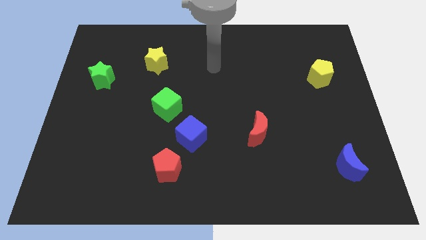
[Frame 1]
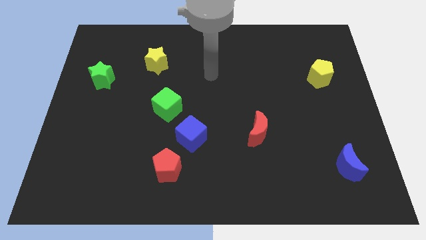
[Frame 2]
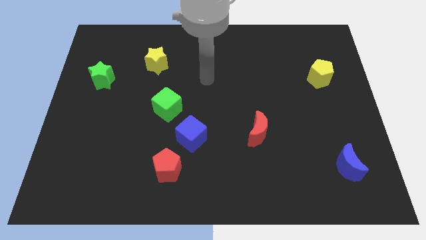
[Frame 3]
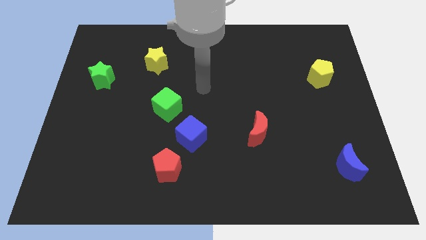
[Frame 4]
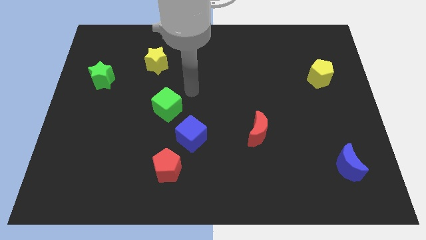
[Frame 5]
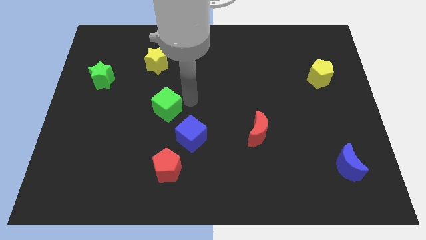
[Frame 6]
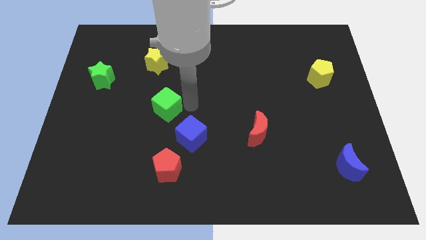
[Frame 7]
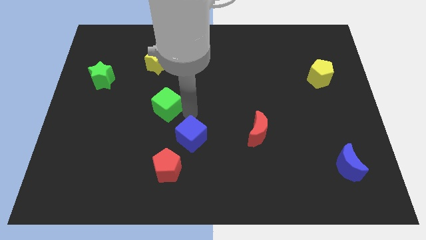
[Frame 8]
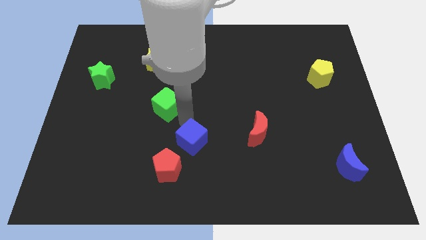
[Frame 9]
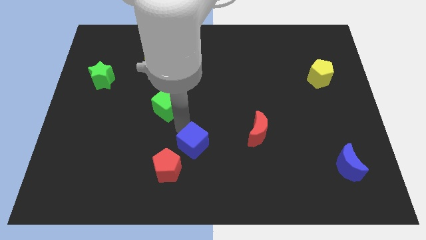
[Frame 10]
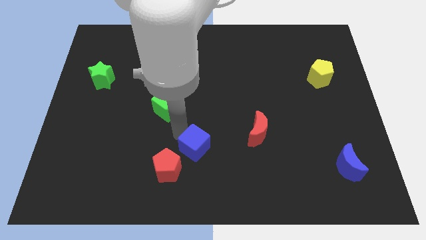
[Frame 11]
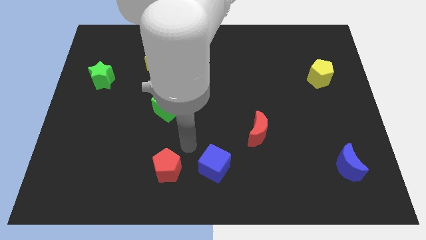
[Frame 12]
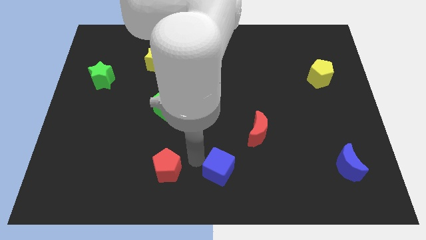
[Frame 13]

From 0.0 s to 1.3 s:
move the red pentagon away from the blue cube

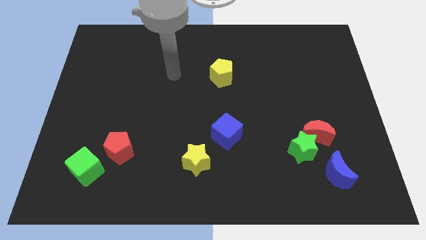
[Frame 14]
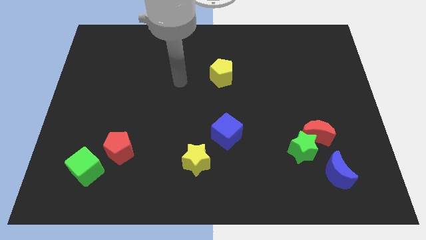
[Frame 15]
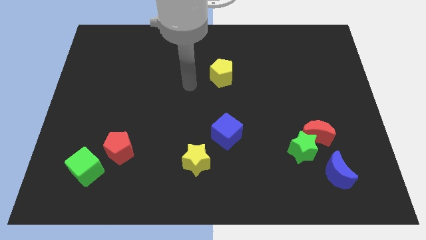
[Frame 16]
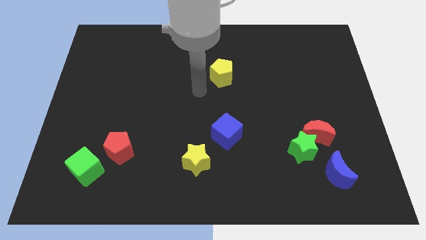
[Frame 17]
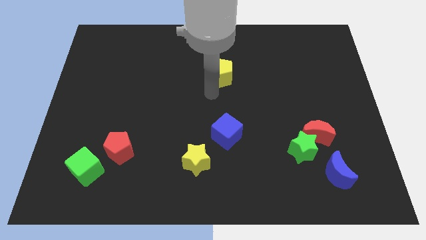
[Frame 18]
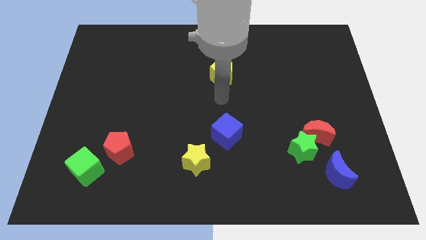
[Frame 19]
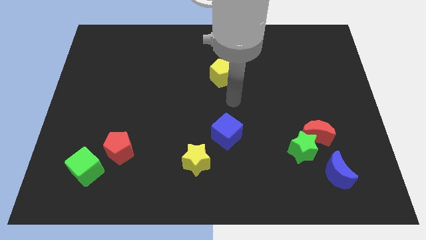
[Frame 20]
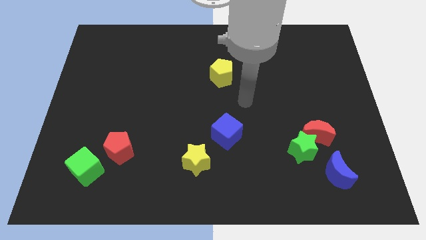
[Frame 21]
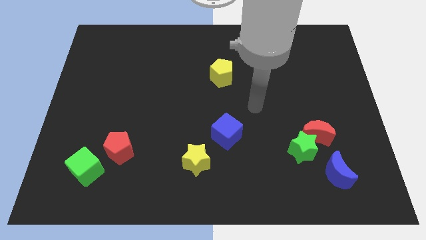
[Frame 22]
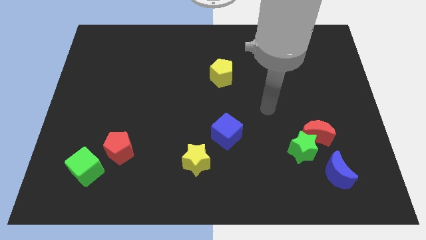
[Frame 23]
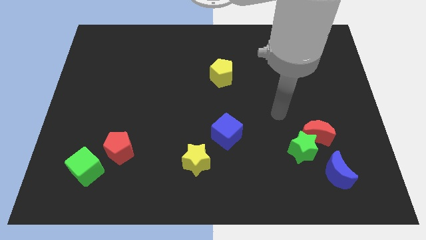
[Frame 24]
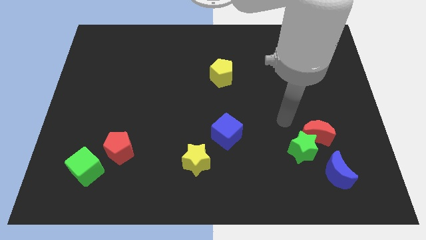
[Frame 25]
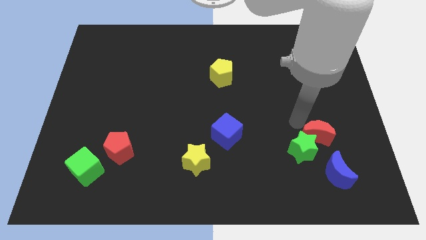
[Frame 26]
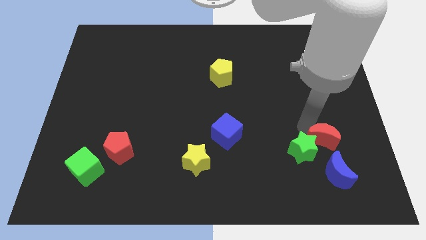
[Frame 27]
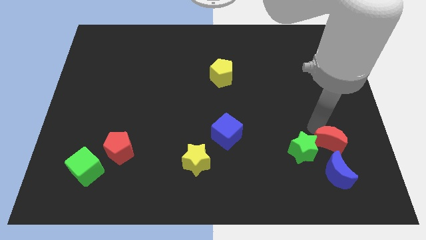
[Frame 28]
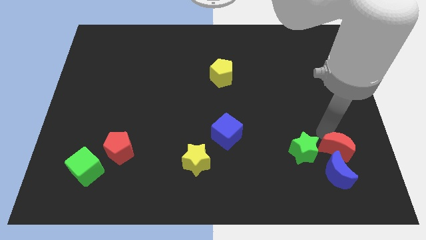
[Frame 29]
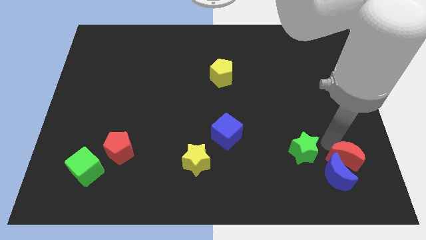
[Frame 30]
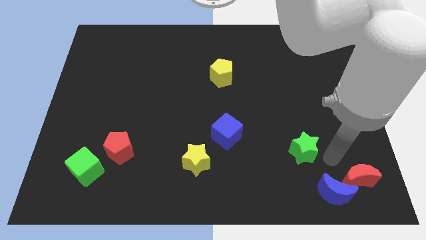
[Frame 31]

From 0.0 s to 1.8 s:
move the green star away from the red moon and blue moon

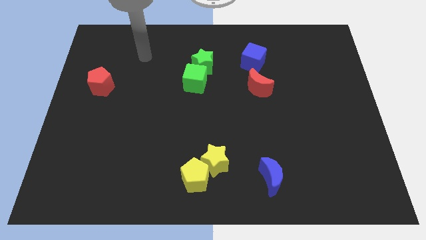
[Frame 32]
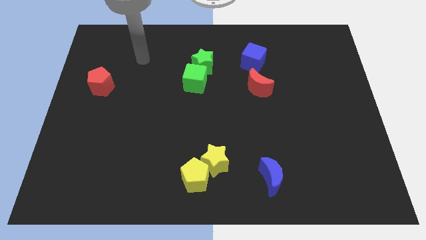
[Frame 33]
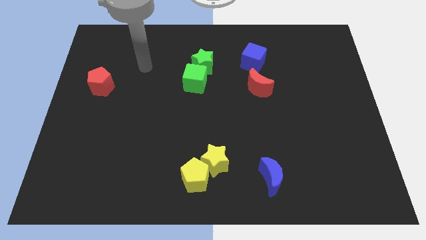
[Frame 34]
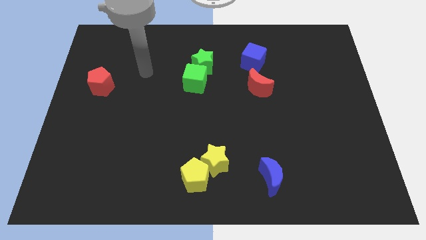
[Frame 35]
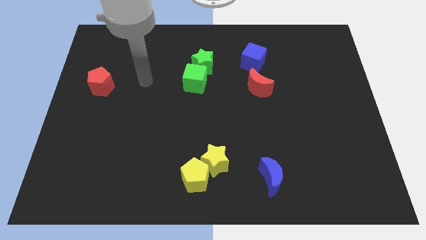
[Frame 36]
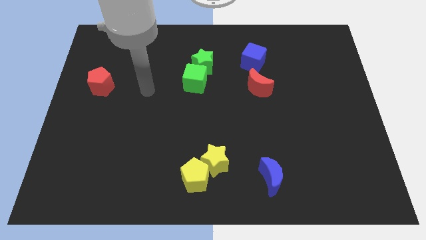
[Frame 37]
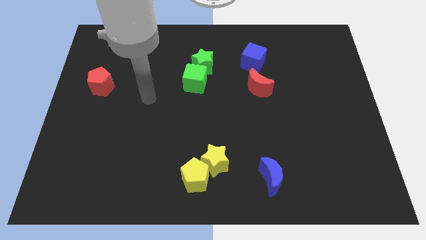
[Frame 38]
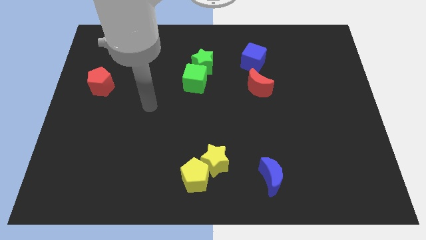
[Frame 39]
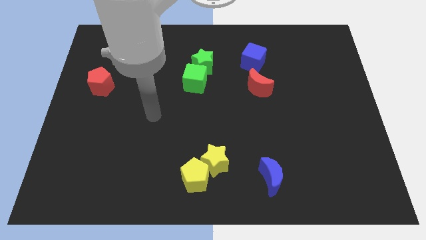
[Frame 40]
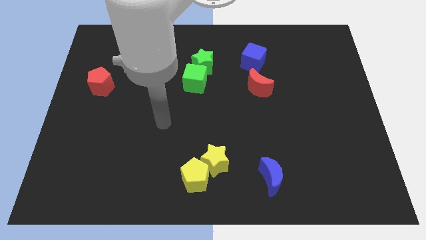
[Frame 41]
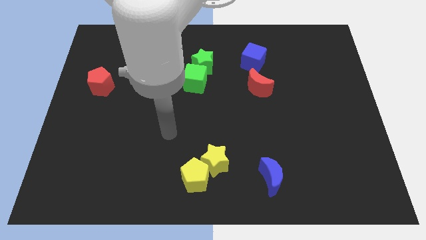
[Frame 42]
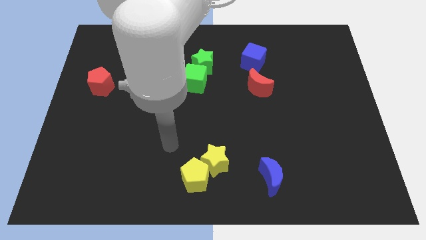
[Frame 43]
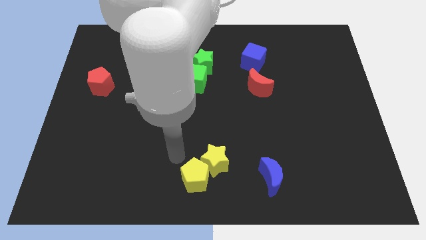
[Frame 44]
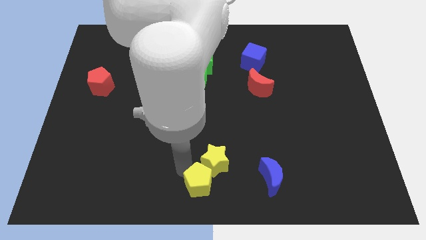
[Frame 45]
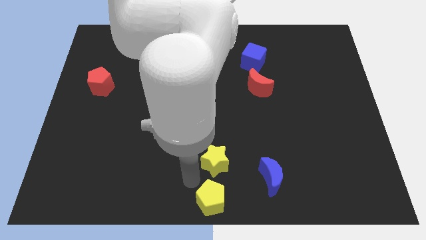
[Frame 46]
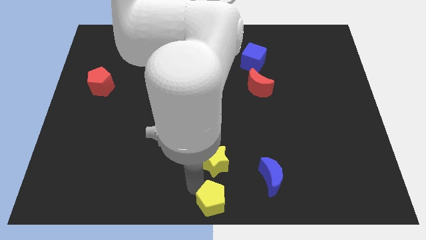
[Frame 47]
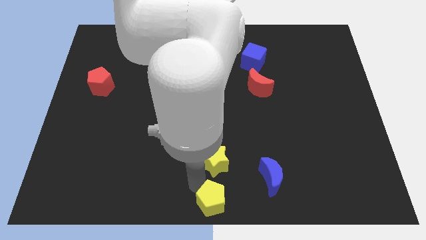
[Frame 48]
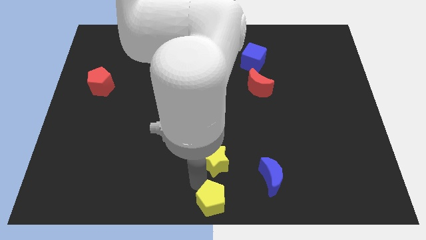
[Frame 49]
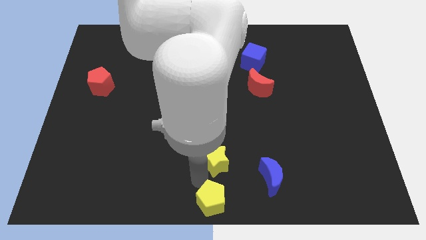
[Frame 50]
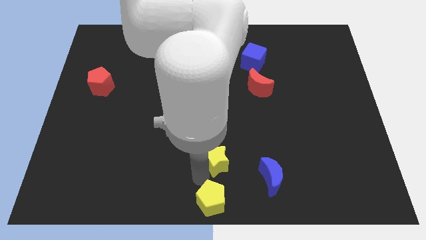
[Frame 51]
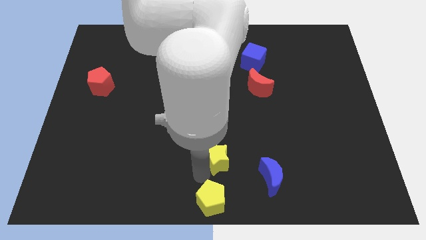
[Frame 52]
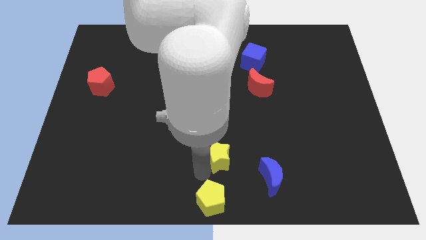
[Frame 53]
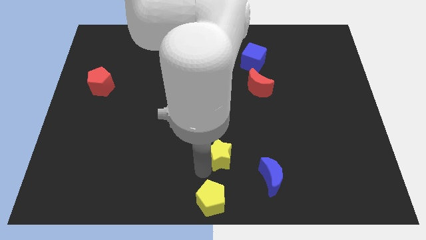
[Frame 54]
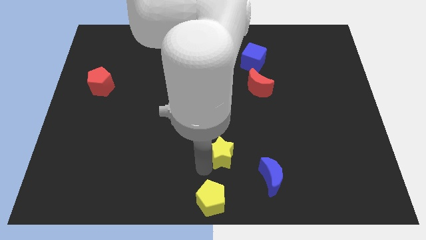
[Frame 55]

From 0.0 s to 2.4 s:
move the yellow star away from the yellow pentagon

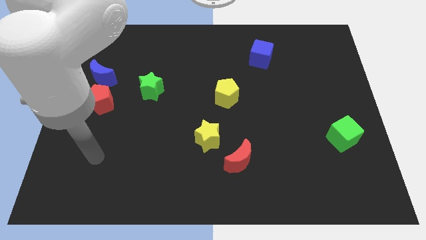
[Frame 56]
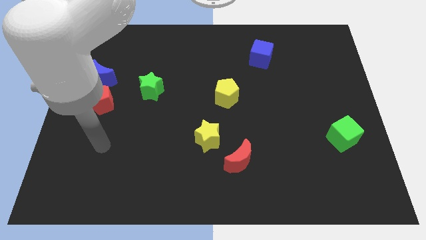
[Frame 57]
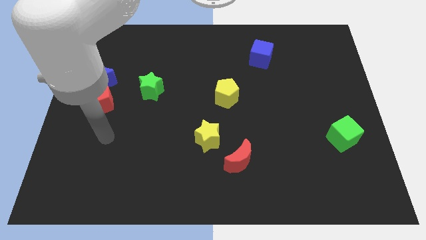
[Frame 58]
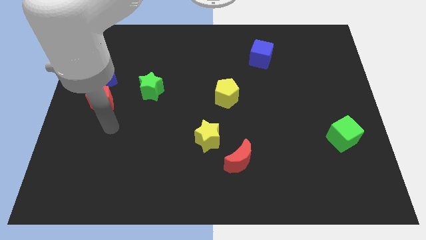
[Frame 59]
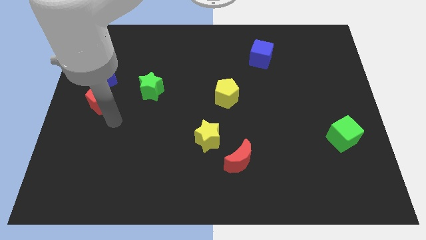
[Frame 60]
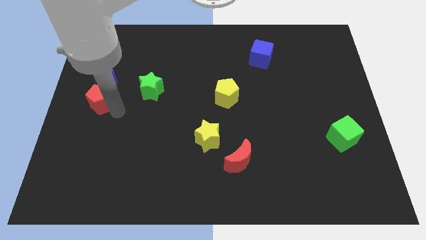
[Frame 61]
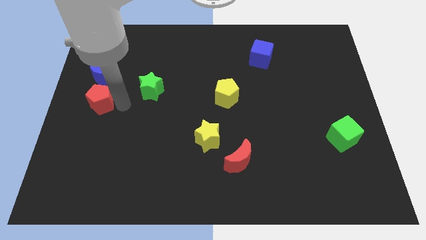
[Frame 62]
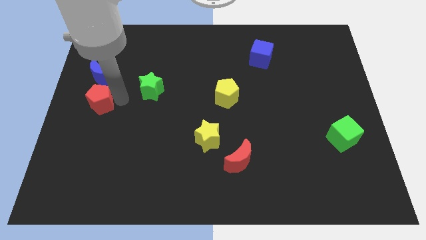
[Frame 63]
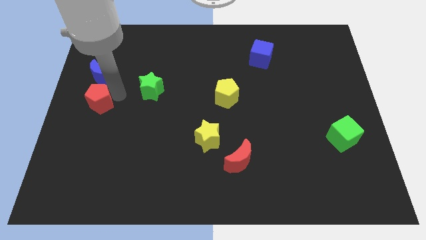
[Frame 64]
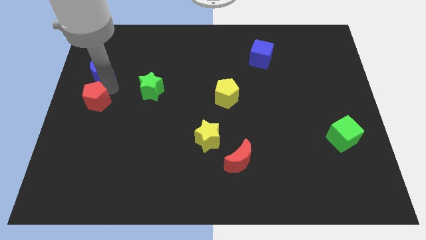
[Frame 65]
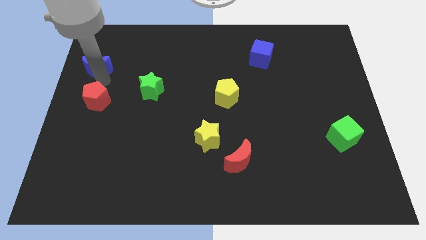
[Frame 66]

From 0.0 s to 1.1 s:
move the red pentagon away from the blue moon

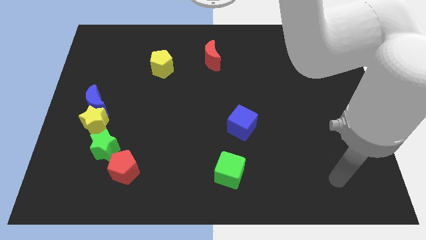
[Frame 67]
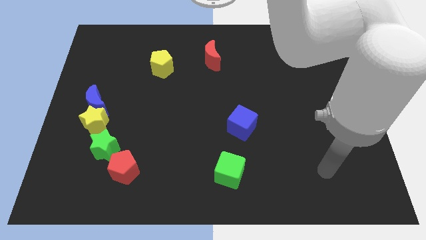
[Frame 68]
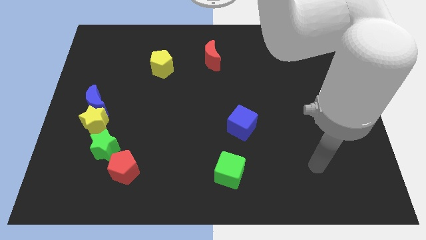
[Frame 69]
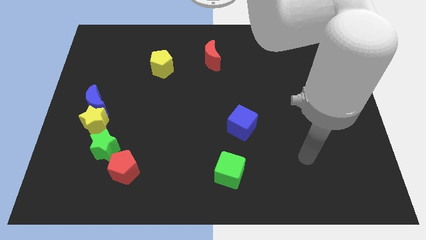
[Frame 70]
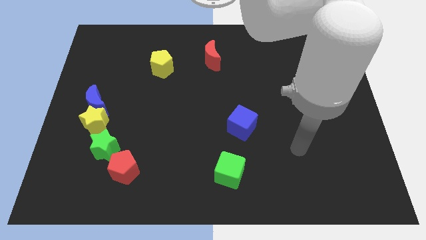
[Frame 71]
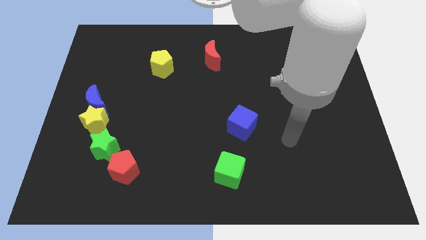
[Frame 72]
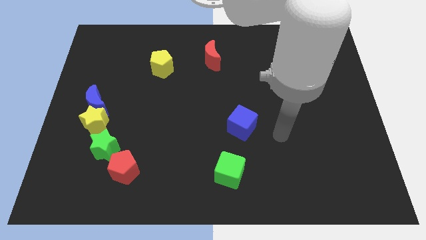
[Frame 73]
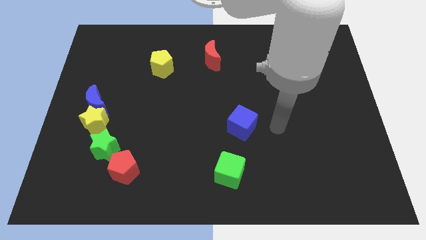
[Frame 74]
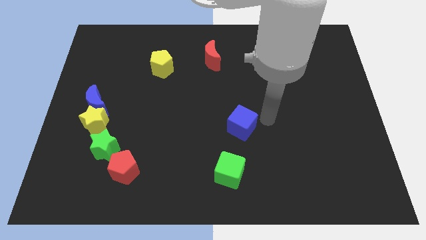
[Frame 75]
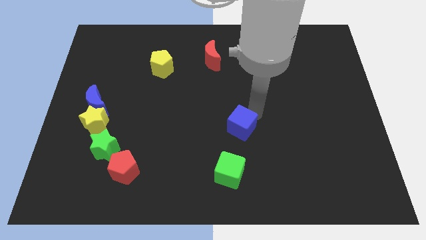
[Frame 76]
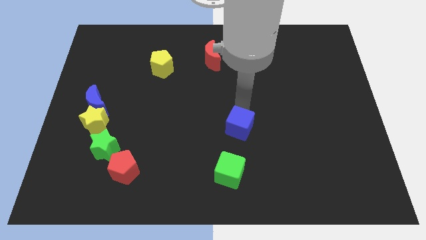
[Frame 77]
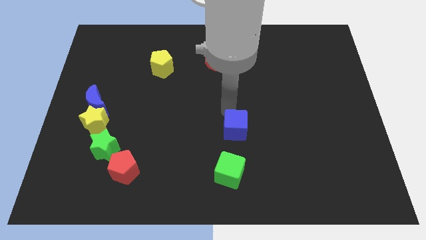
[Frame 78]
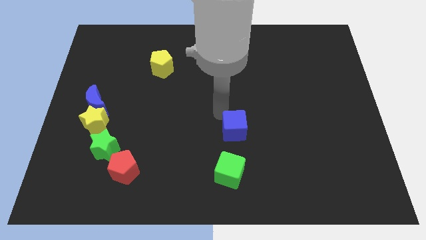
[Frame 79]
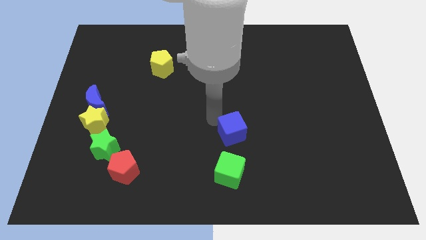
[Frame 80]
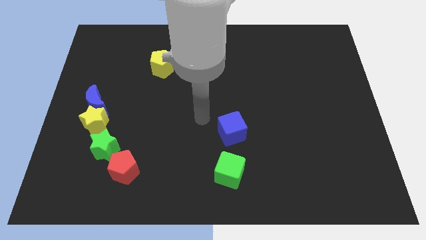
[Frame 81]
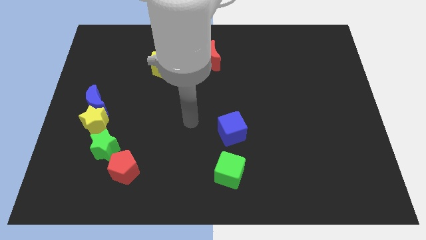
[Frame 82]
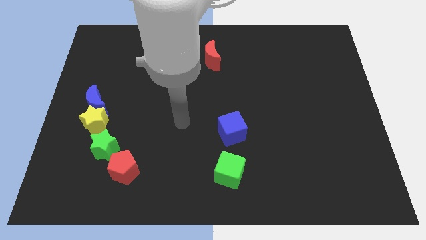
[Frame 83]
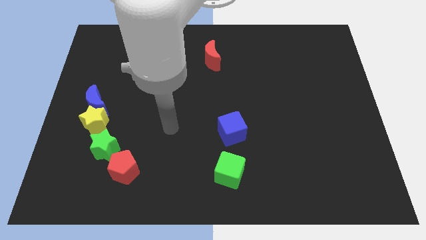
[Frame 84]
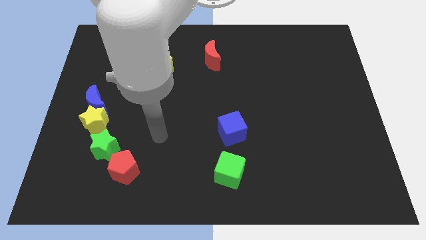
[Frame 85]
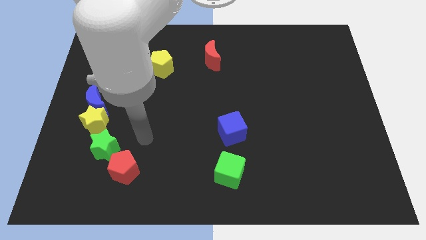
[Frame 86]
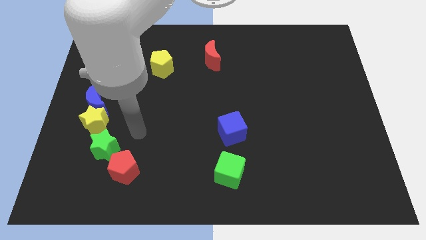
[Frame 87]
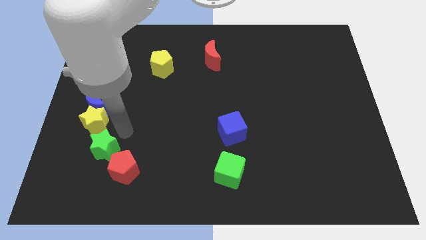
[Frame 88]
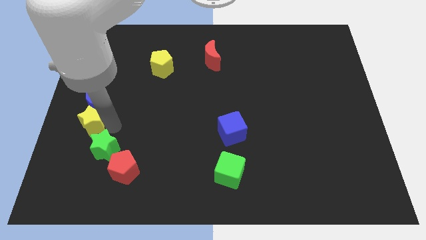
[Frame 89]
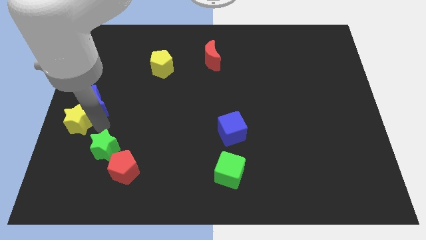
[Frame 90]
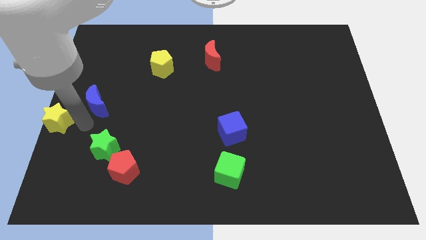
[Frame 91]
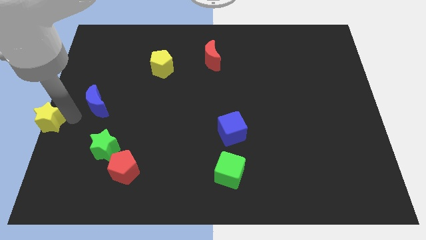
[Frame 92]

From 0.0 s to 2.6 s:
pull the blue moon apart from the yellow star
